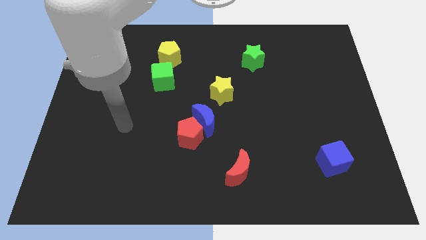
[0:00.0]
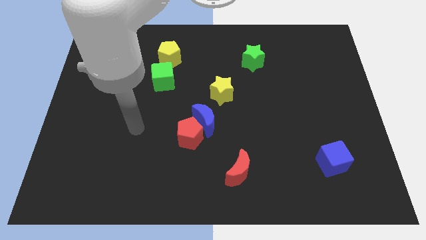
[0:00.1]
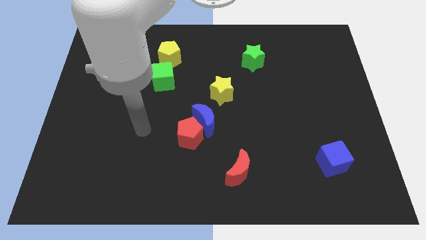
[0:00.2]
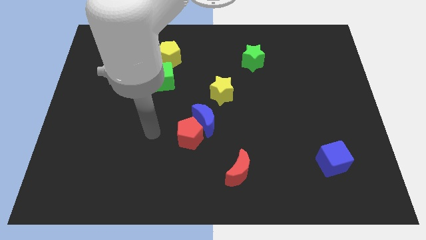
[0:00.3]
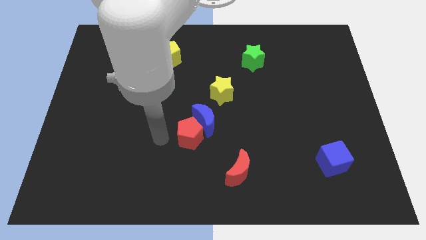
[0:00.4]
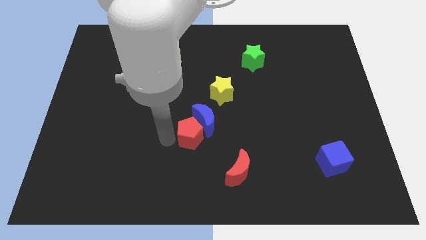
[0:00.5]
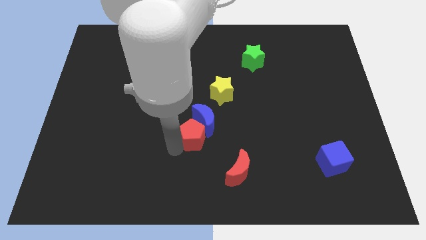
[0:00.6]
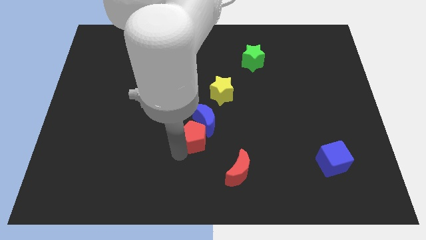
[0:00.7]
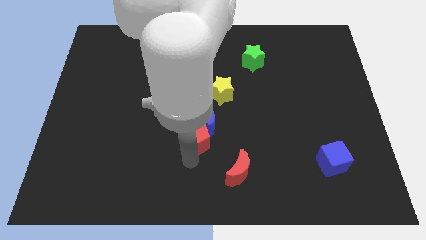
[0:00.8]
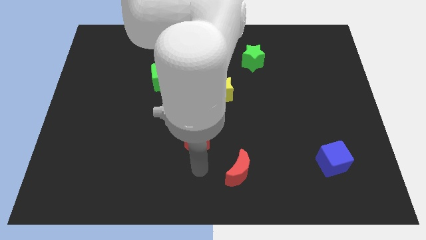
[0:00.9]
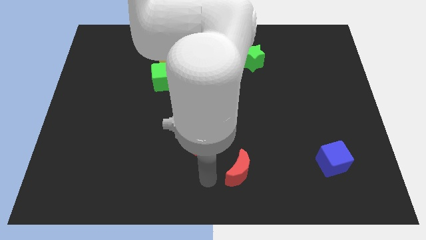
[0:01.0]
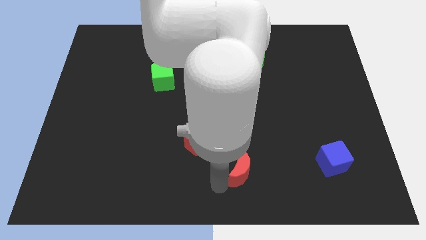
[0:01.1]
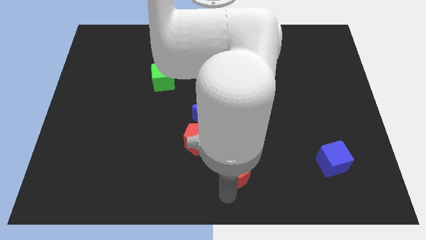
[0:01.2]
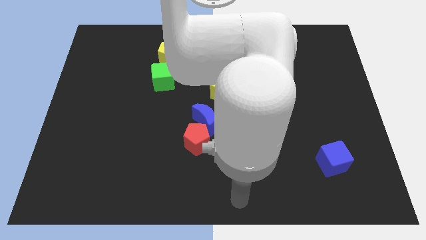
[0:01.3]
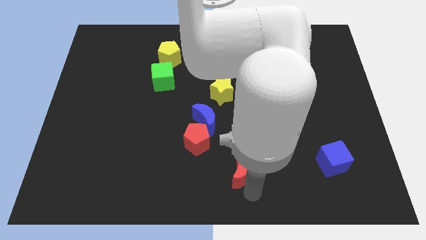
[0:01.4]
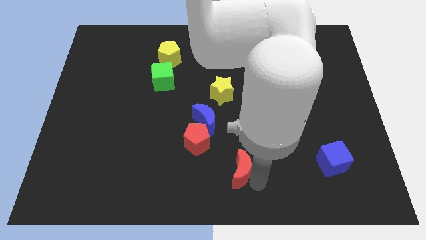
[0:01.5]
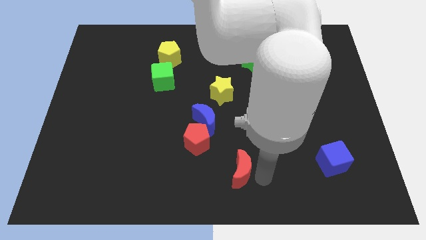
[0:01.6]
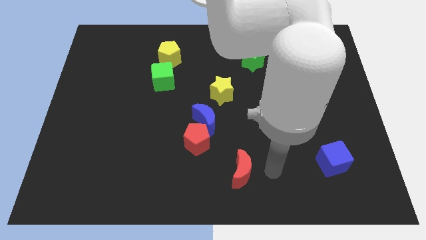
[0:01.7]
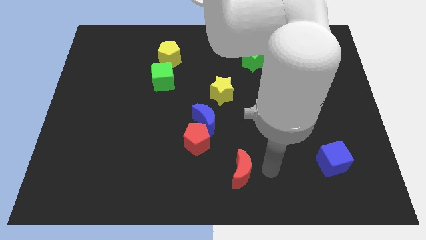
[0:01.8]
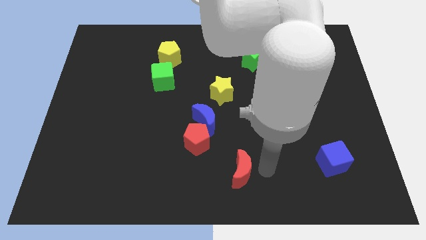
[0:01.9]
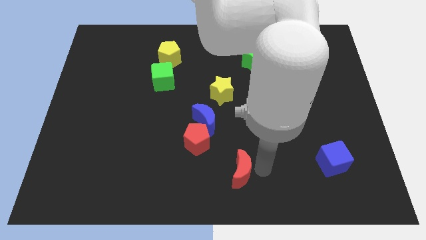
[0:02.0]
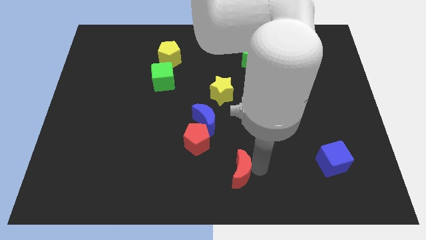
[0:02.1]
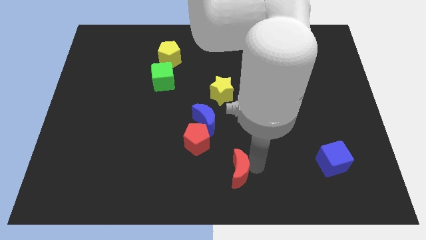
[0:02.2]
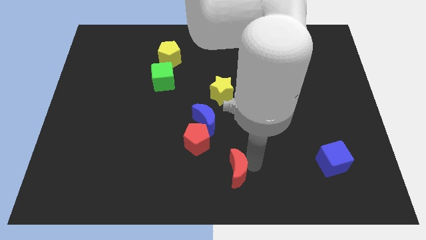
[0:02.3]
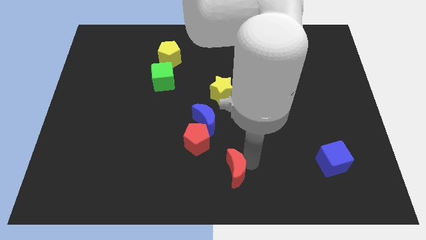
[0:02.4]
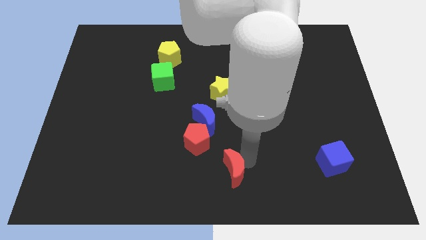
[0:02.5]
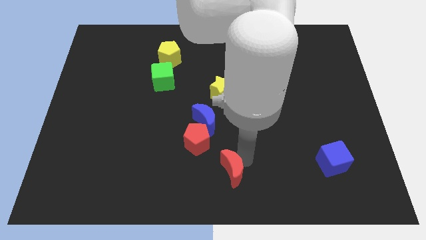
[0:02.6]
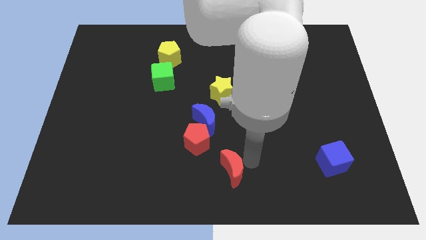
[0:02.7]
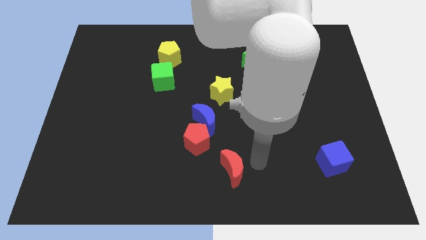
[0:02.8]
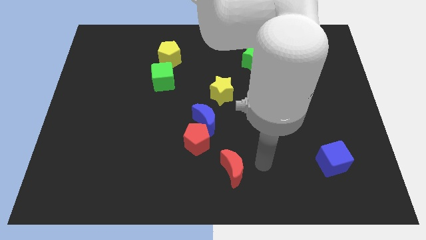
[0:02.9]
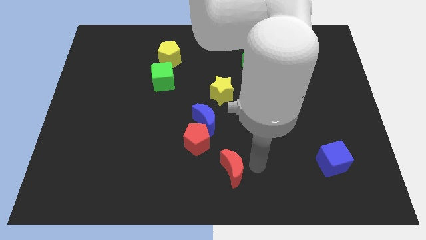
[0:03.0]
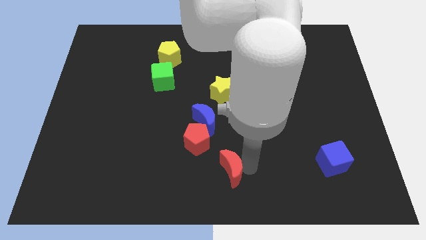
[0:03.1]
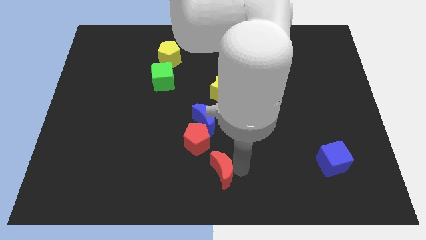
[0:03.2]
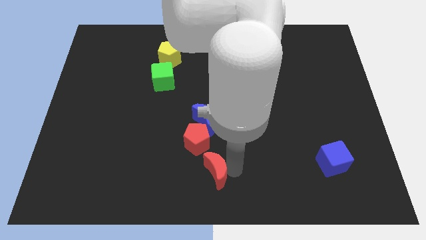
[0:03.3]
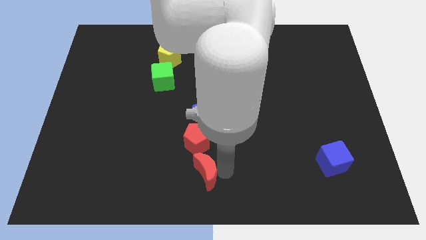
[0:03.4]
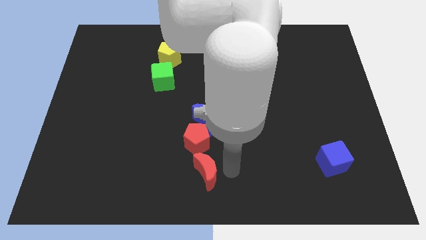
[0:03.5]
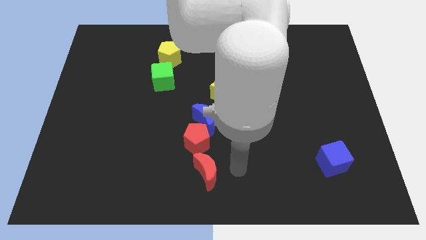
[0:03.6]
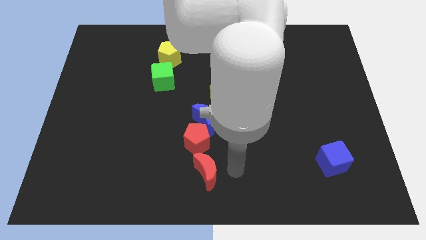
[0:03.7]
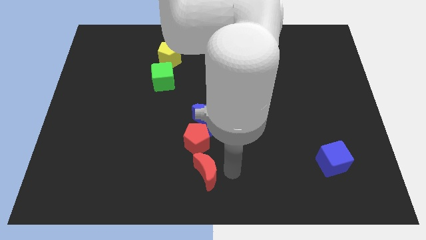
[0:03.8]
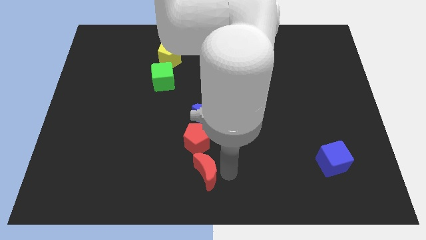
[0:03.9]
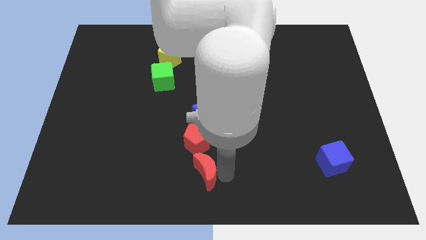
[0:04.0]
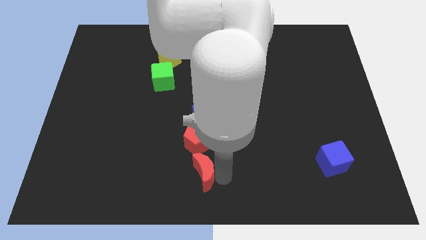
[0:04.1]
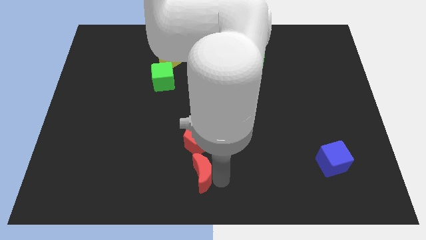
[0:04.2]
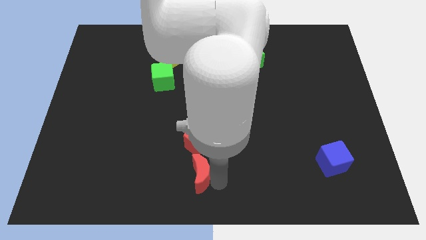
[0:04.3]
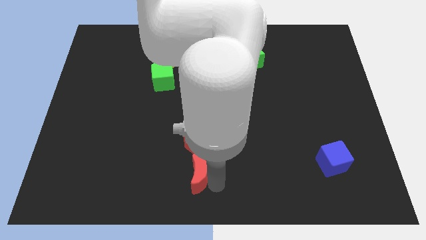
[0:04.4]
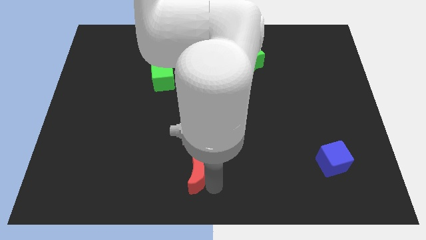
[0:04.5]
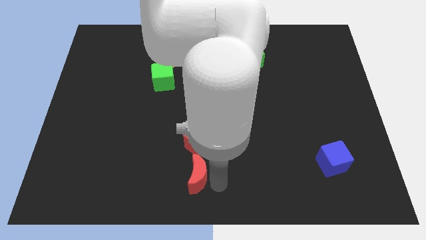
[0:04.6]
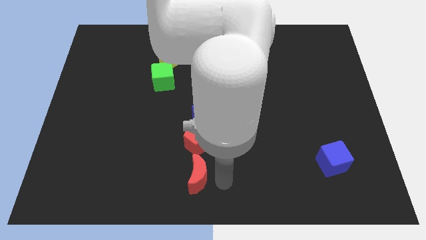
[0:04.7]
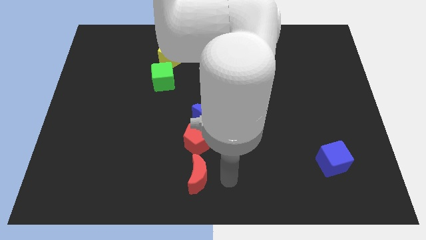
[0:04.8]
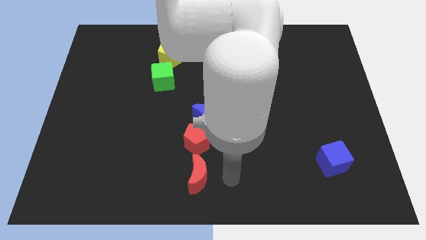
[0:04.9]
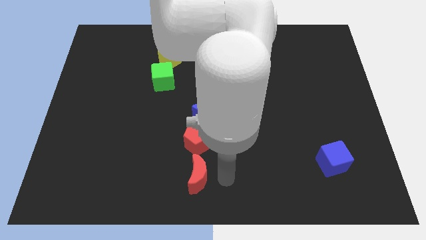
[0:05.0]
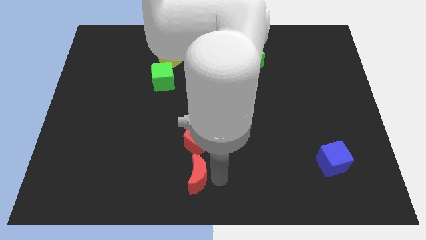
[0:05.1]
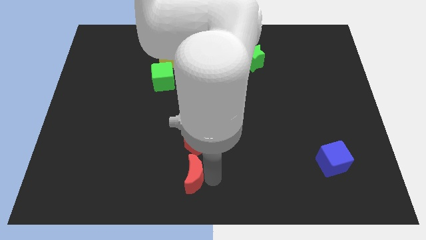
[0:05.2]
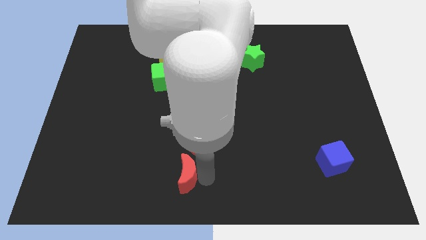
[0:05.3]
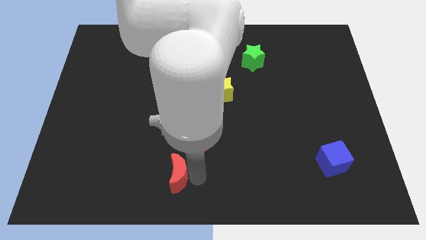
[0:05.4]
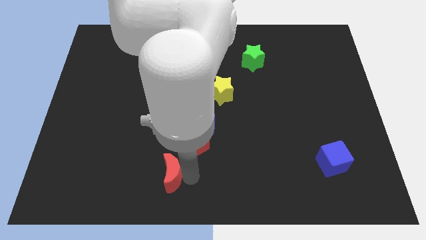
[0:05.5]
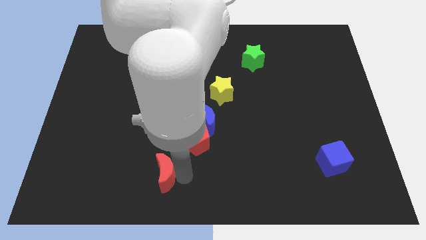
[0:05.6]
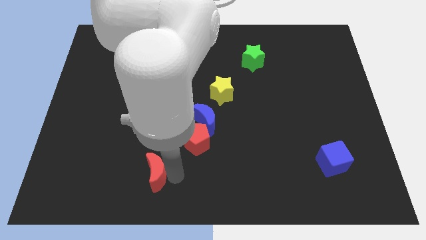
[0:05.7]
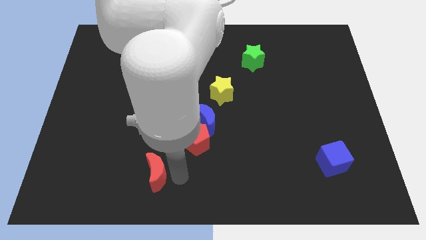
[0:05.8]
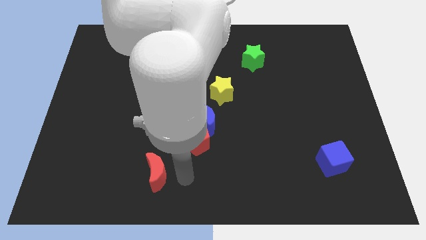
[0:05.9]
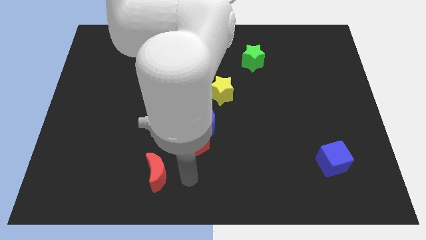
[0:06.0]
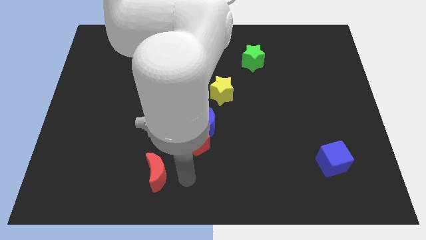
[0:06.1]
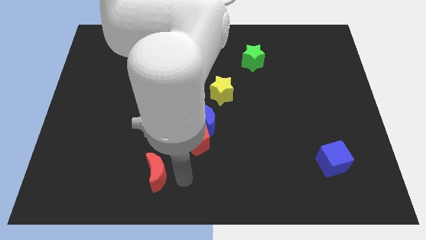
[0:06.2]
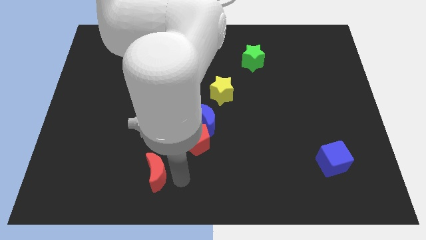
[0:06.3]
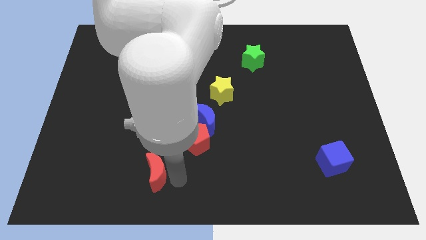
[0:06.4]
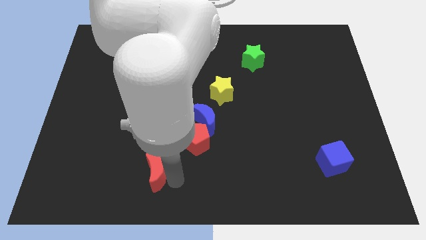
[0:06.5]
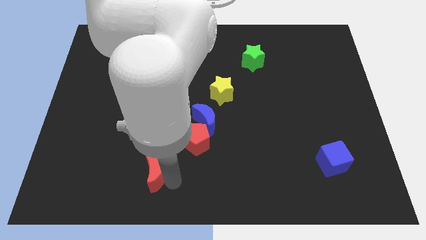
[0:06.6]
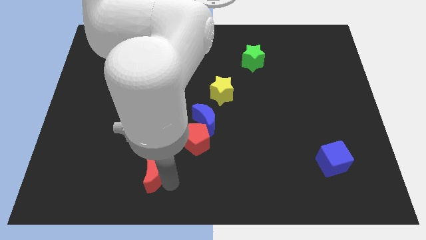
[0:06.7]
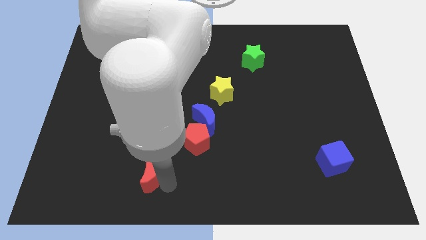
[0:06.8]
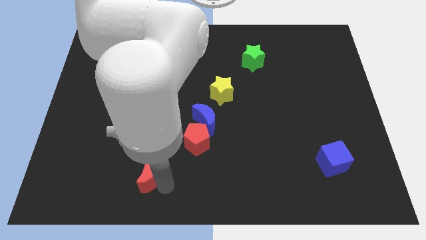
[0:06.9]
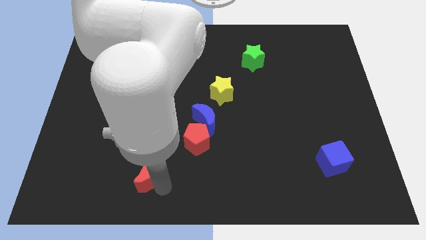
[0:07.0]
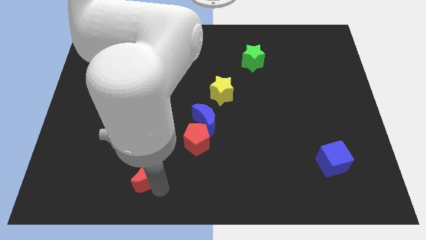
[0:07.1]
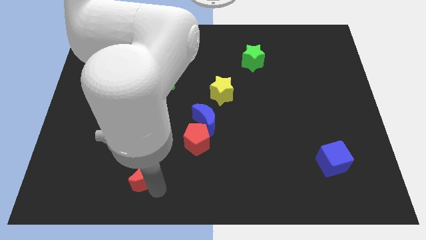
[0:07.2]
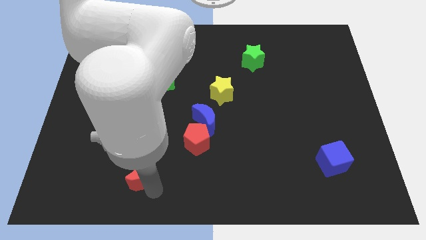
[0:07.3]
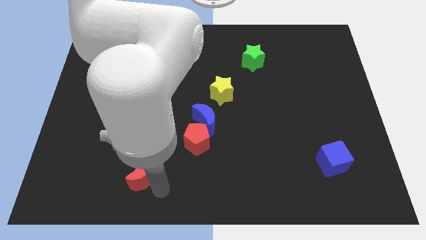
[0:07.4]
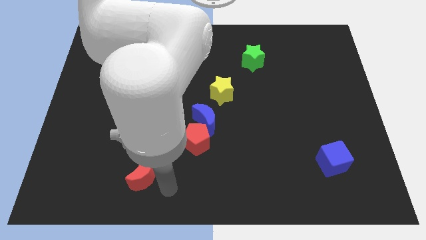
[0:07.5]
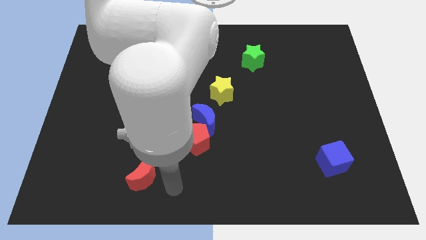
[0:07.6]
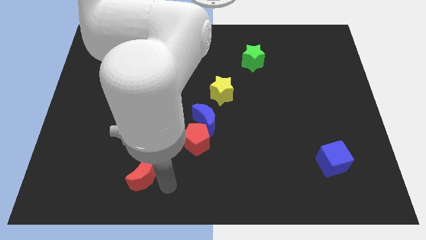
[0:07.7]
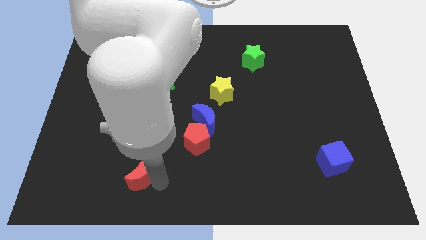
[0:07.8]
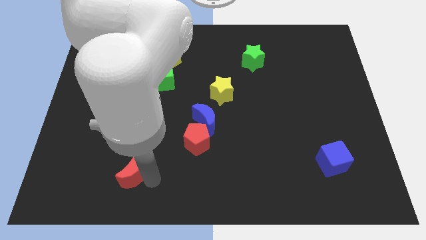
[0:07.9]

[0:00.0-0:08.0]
move the red moon to the left

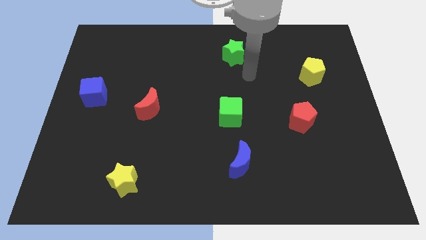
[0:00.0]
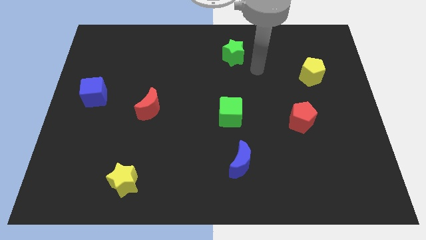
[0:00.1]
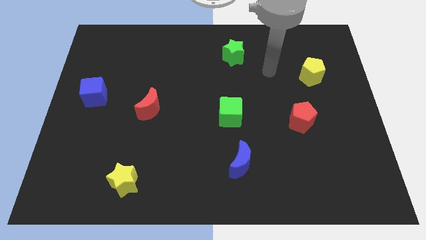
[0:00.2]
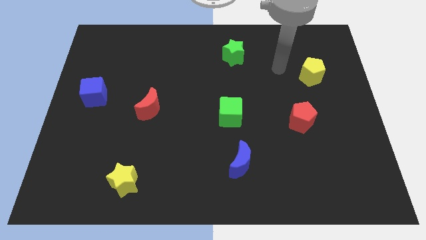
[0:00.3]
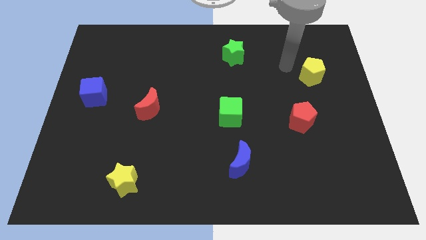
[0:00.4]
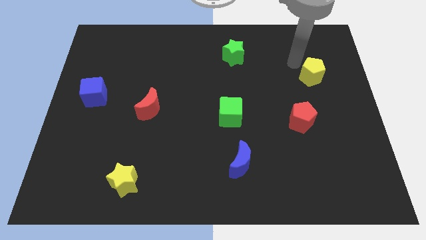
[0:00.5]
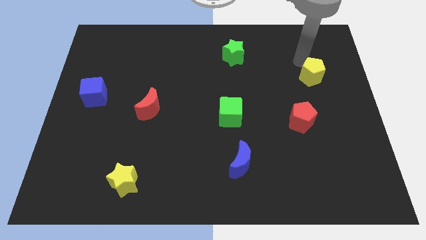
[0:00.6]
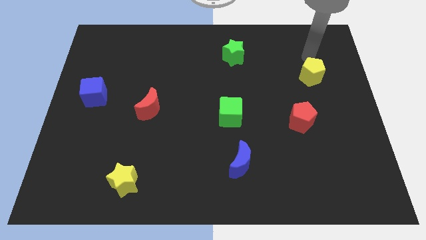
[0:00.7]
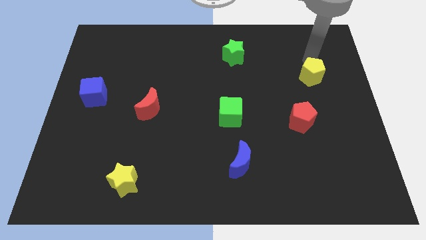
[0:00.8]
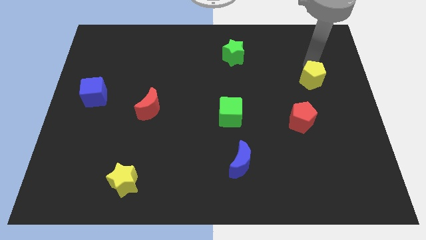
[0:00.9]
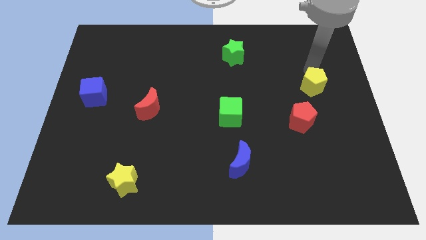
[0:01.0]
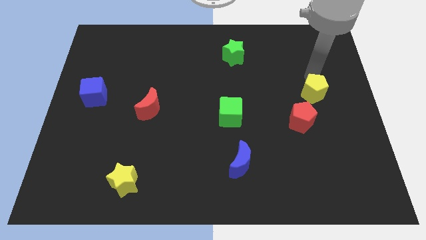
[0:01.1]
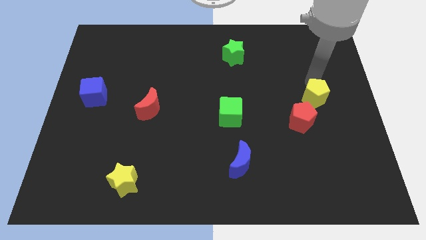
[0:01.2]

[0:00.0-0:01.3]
slightly slide the yellow pentagon downwards
